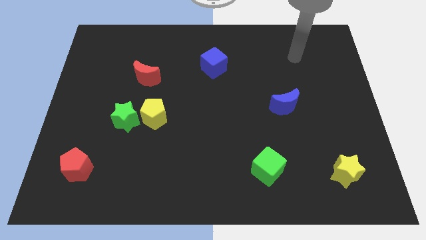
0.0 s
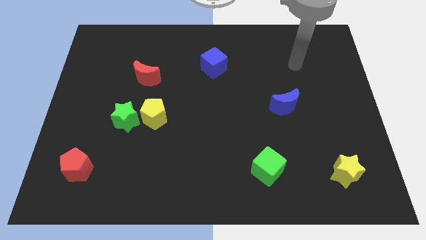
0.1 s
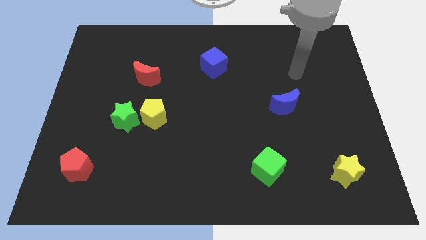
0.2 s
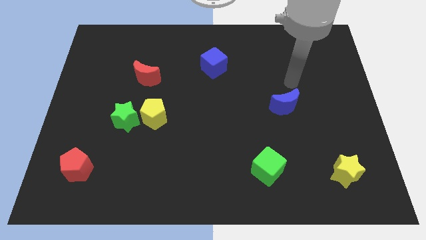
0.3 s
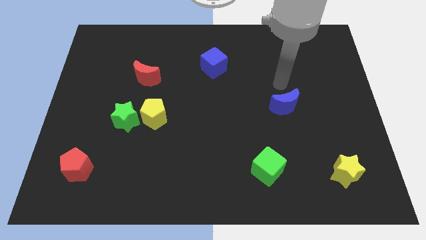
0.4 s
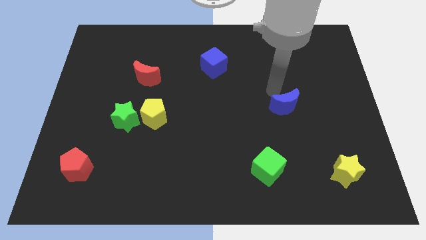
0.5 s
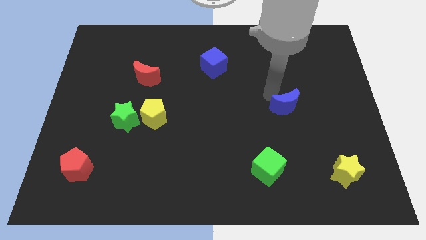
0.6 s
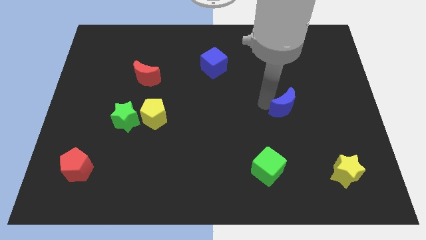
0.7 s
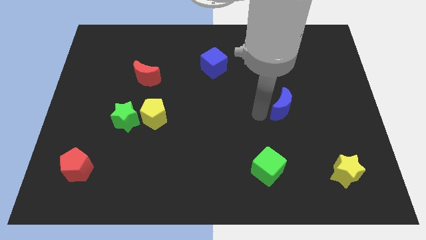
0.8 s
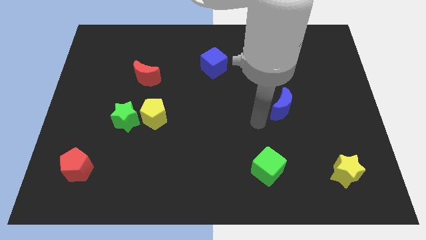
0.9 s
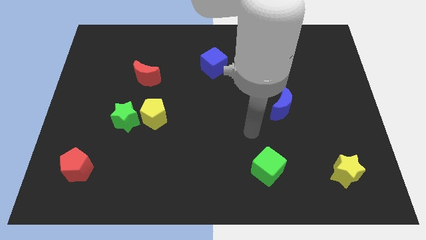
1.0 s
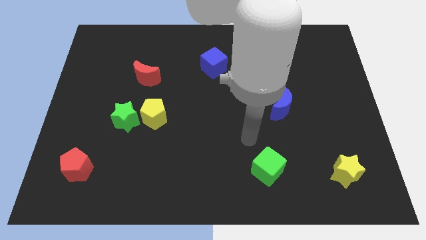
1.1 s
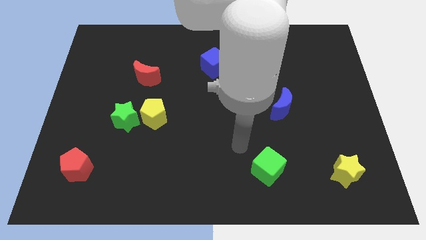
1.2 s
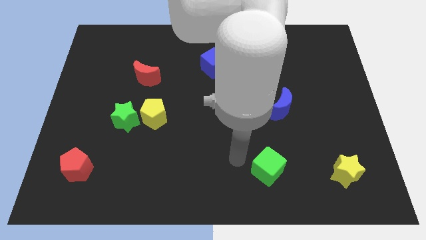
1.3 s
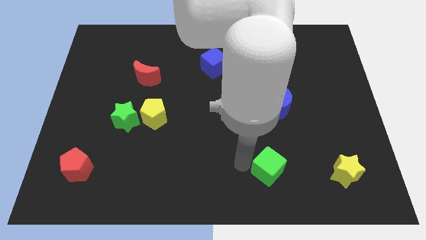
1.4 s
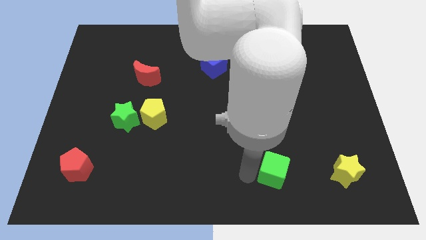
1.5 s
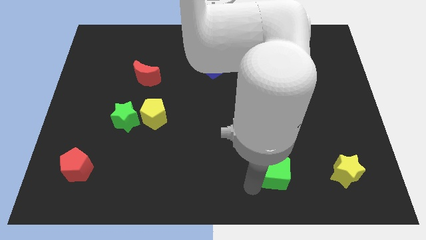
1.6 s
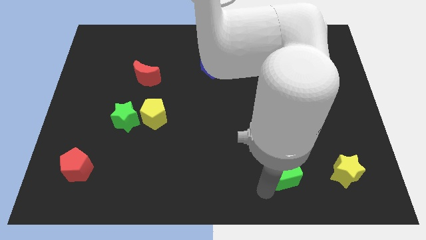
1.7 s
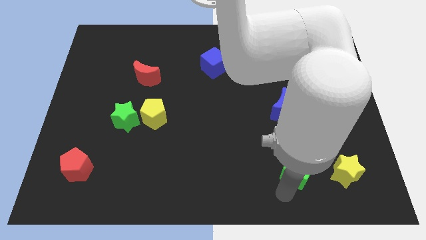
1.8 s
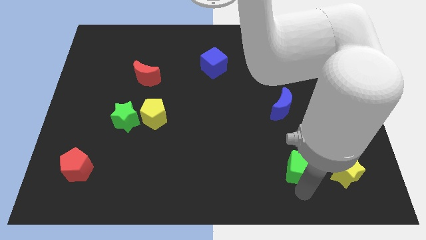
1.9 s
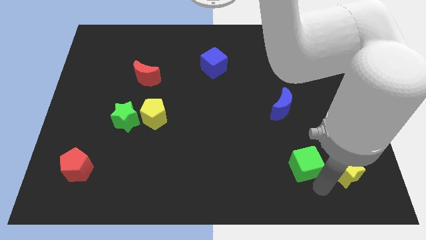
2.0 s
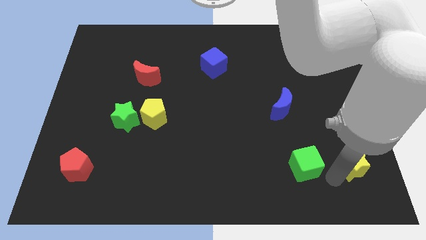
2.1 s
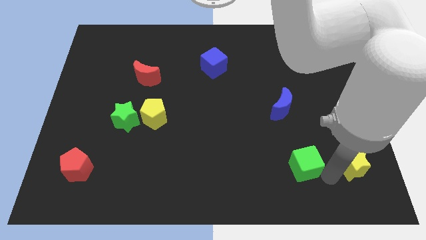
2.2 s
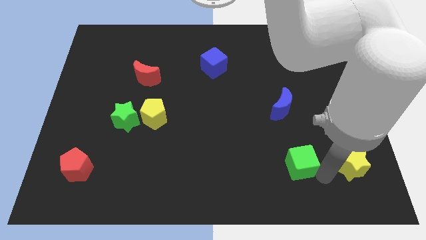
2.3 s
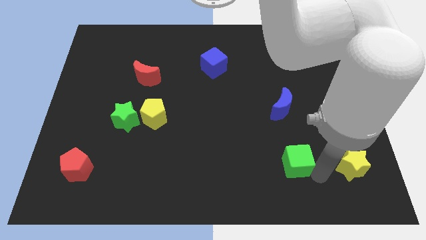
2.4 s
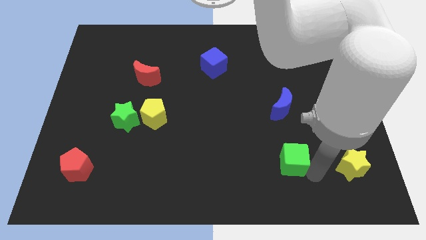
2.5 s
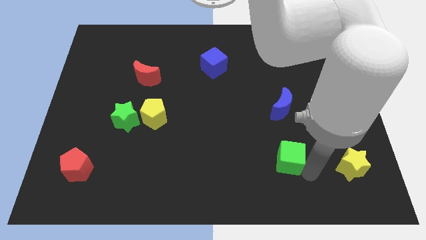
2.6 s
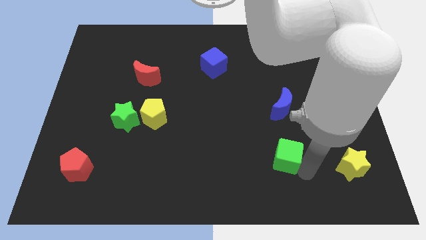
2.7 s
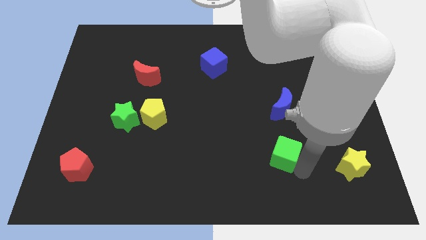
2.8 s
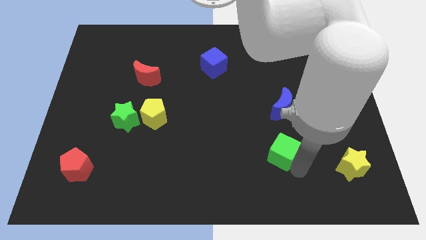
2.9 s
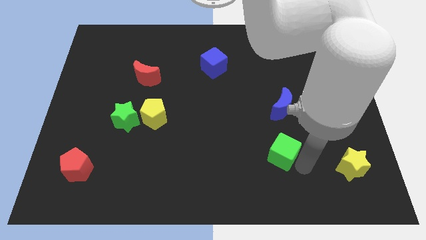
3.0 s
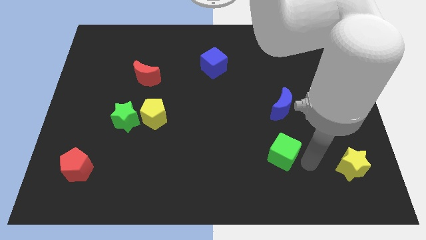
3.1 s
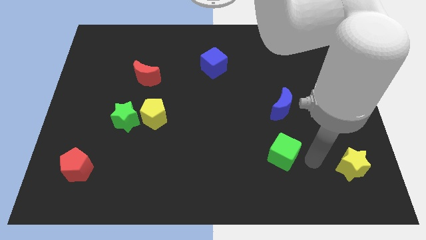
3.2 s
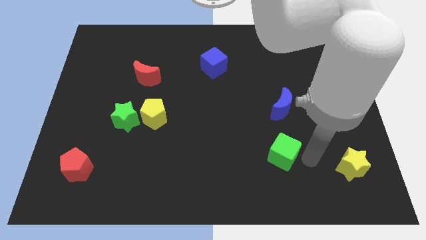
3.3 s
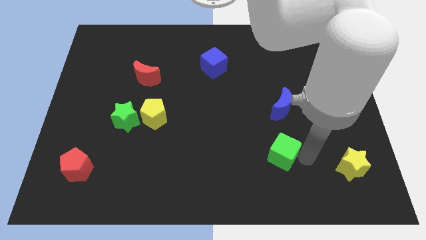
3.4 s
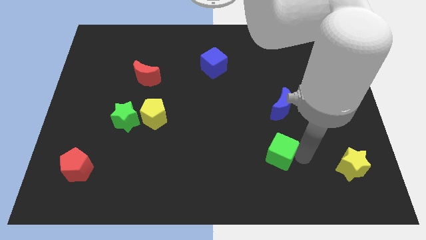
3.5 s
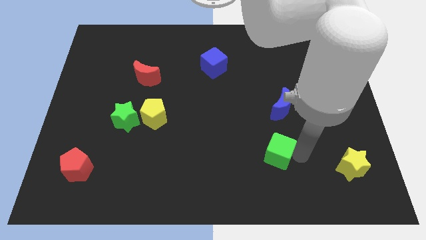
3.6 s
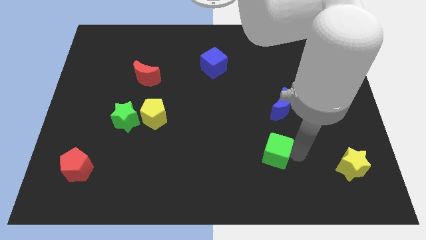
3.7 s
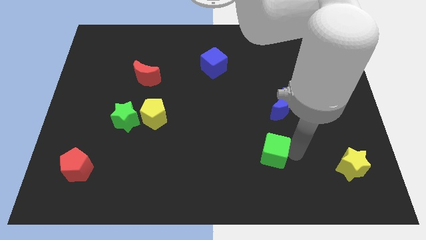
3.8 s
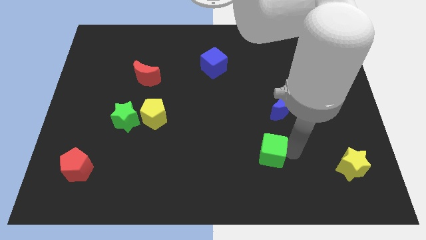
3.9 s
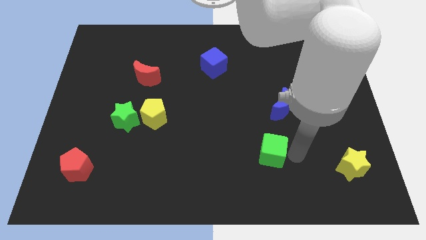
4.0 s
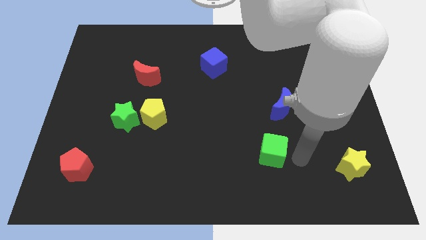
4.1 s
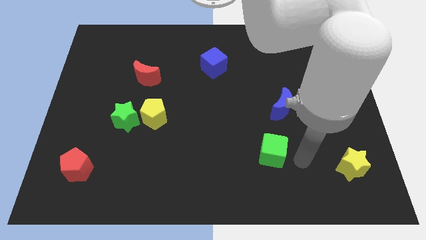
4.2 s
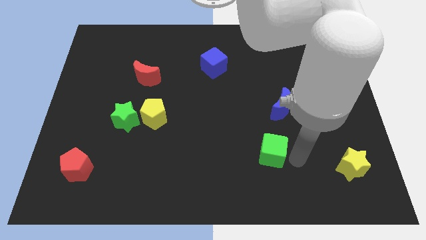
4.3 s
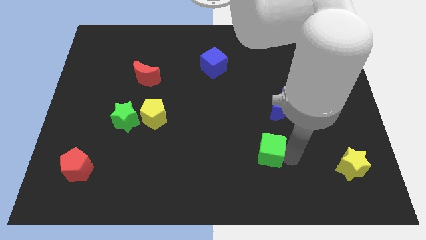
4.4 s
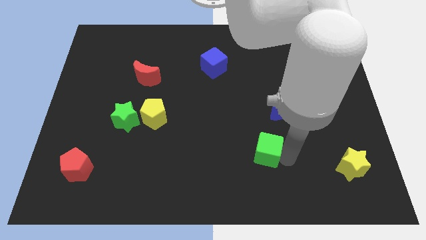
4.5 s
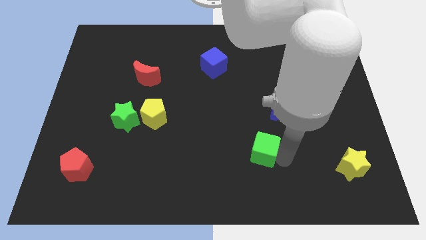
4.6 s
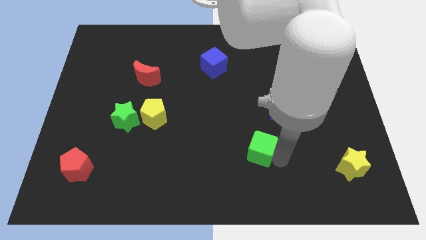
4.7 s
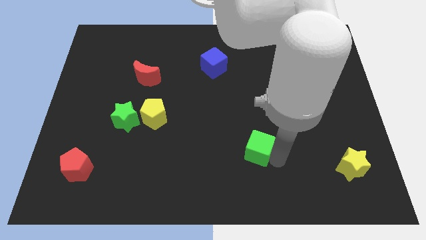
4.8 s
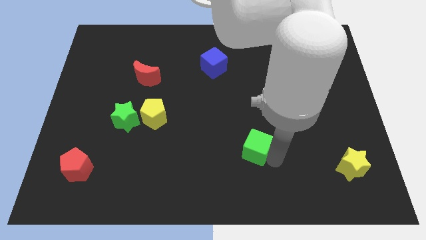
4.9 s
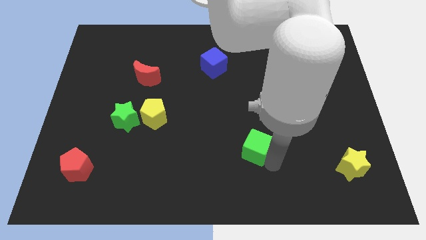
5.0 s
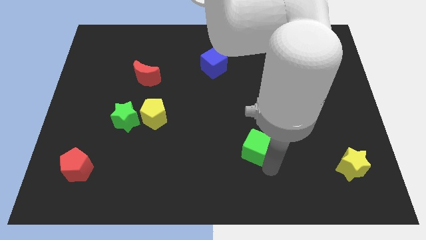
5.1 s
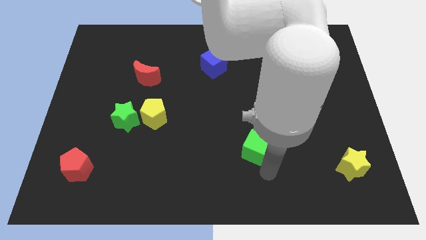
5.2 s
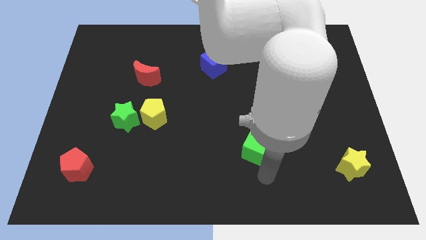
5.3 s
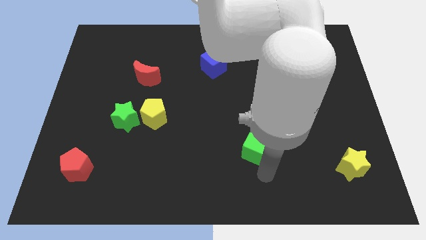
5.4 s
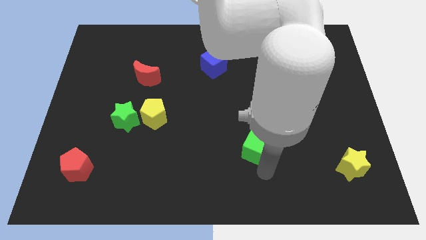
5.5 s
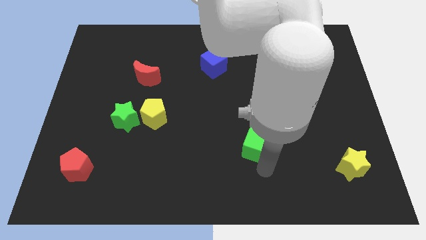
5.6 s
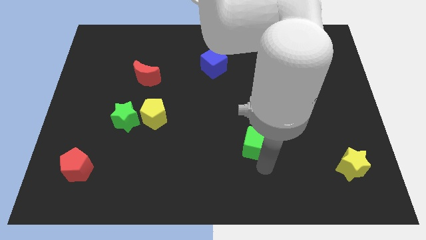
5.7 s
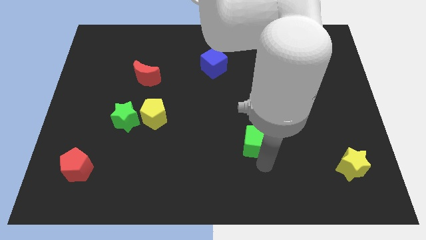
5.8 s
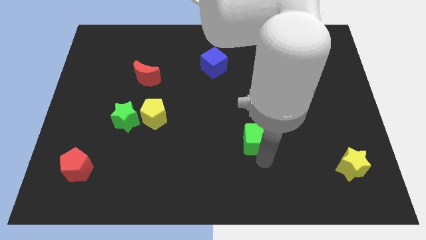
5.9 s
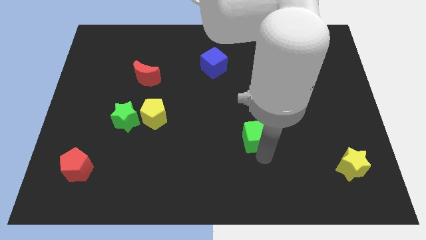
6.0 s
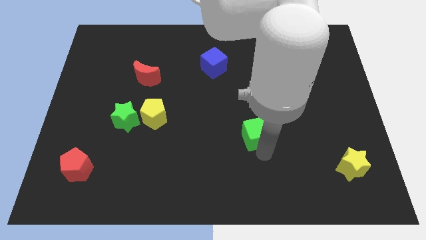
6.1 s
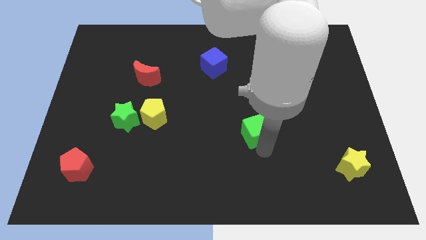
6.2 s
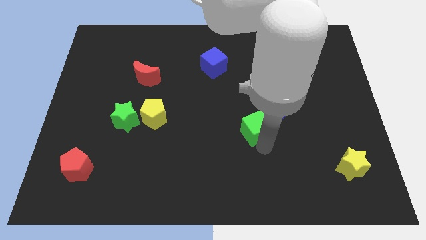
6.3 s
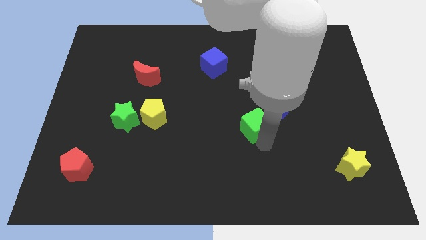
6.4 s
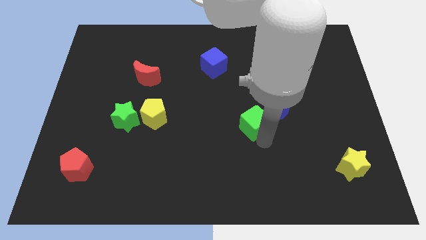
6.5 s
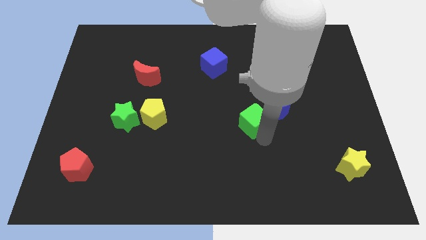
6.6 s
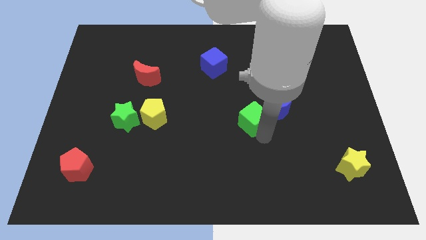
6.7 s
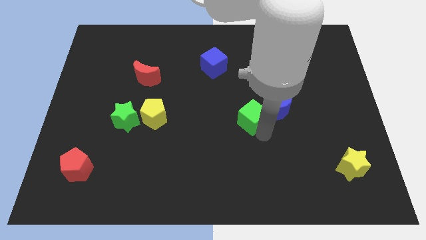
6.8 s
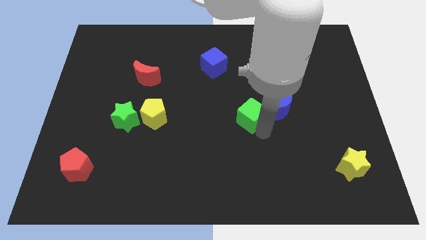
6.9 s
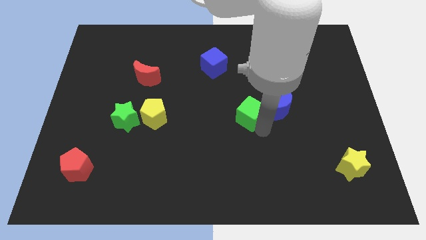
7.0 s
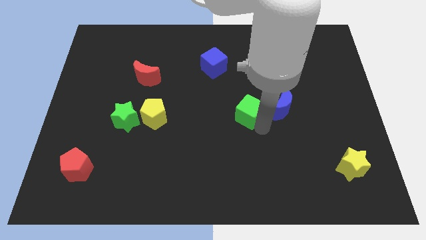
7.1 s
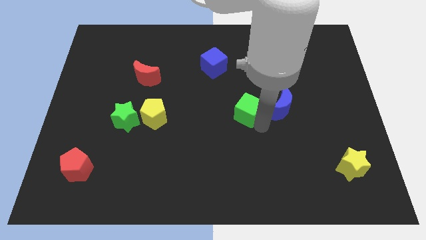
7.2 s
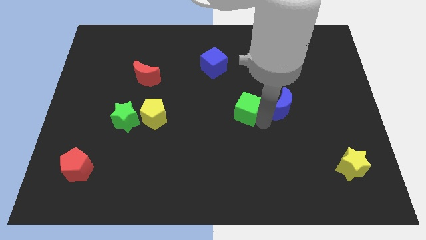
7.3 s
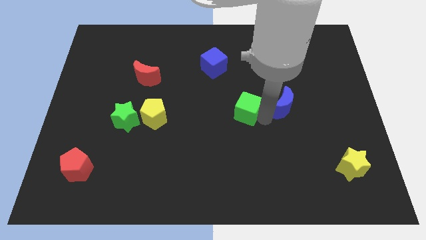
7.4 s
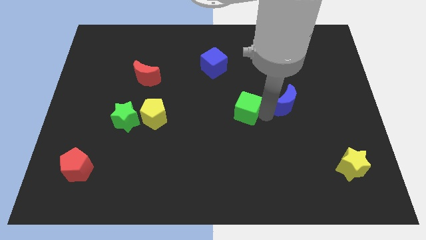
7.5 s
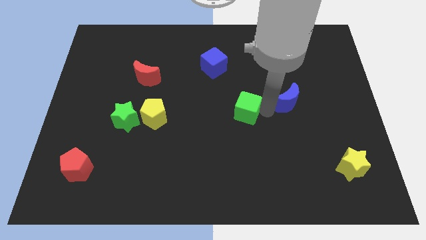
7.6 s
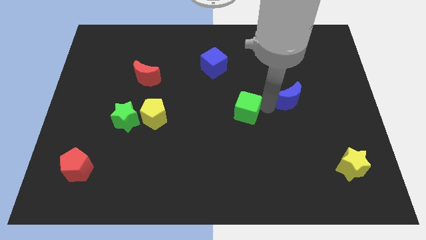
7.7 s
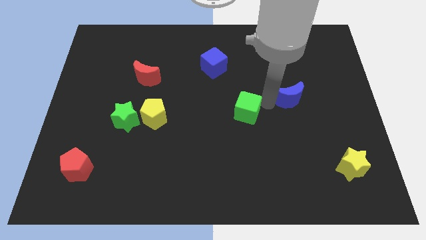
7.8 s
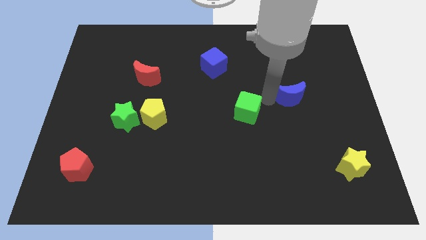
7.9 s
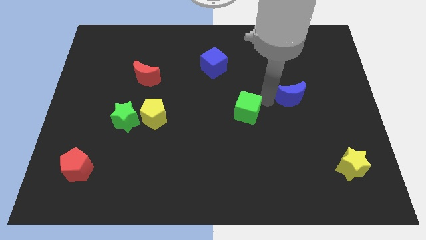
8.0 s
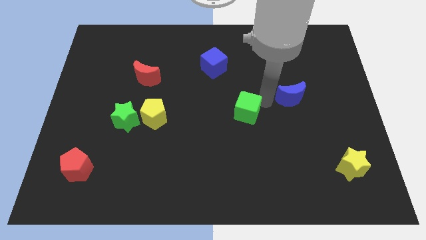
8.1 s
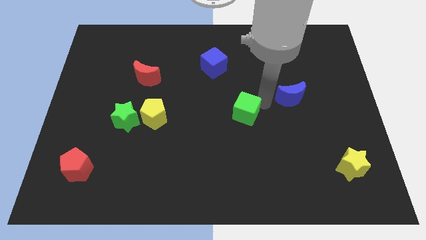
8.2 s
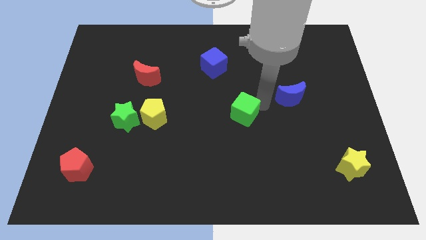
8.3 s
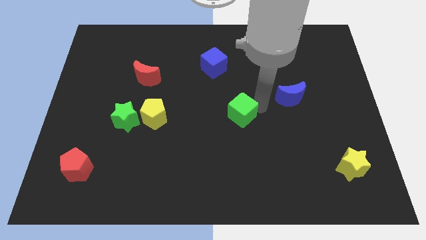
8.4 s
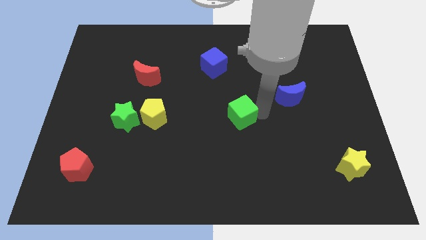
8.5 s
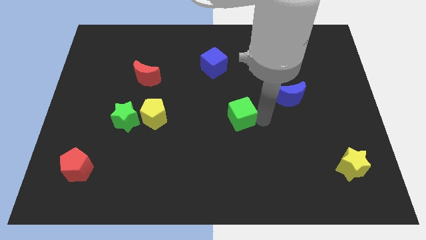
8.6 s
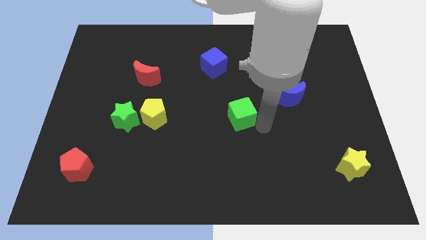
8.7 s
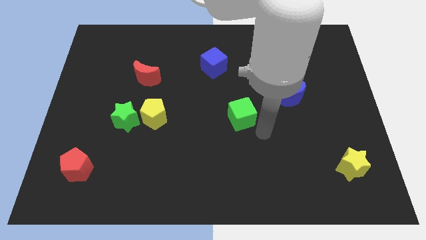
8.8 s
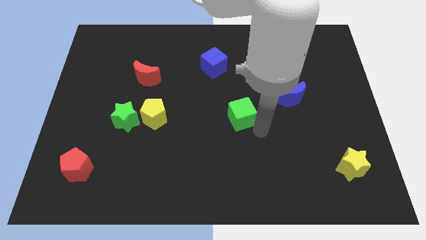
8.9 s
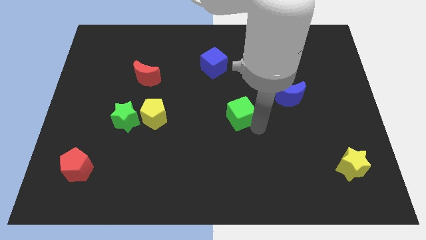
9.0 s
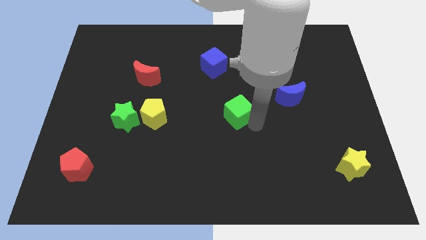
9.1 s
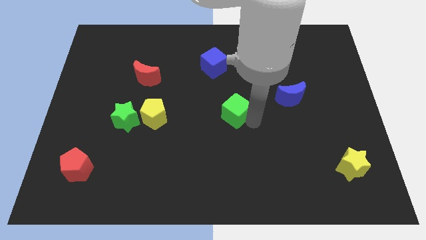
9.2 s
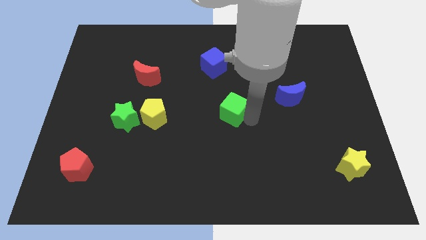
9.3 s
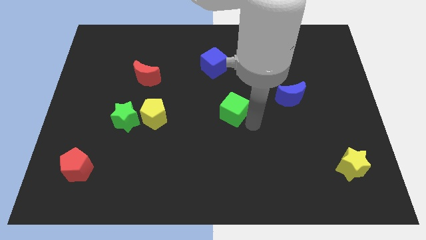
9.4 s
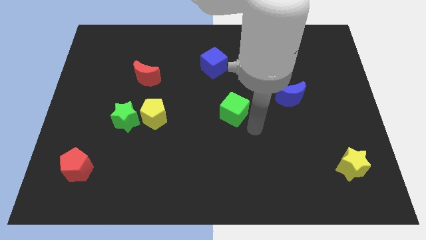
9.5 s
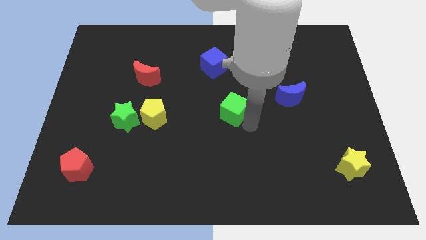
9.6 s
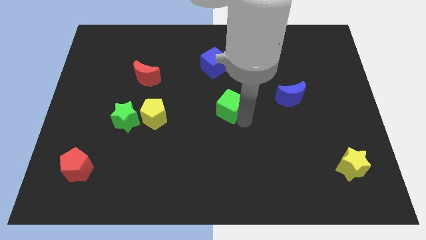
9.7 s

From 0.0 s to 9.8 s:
push the green cube to the bottom of the blue cube
